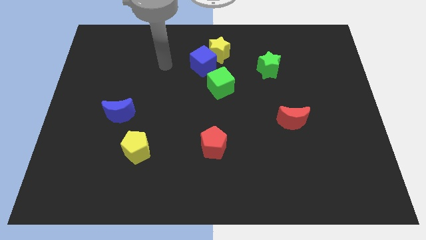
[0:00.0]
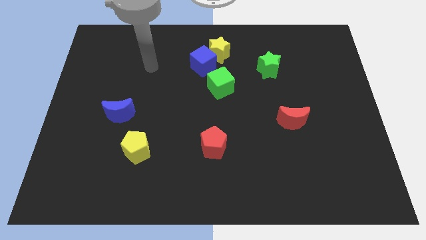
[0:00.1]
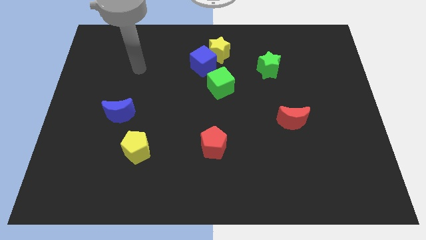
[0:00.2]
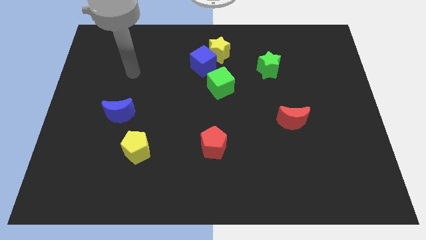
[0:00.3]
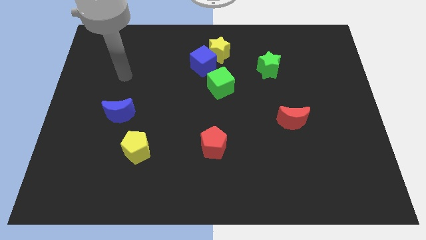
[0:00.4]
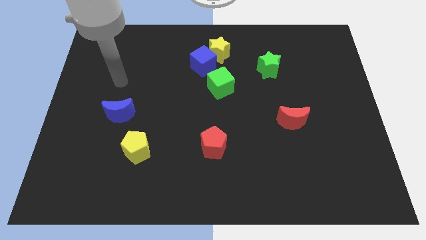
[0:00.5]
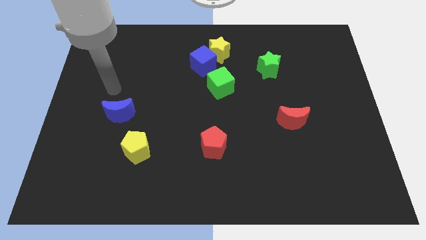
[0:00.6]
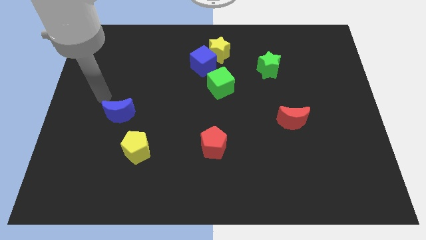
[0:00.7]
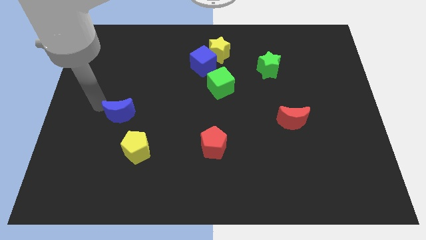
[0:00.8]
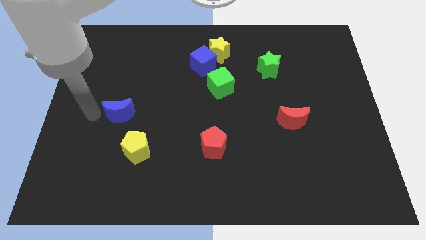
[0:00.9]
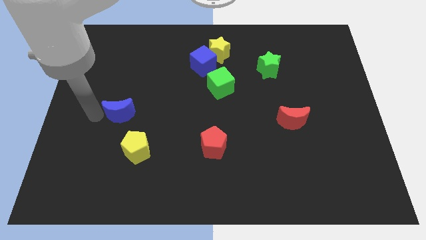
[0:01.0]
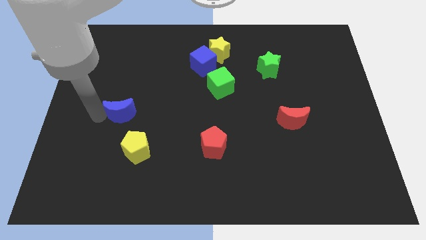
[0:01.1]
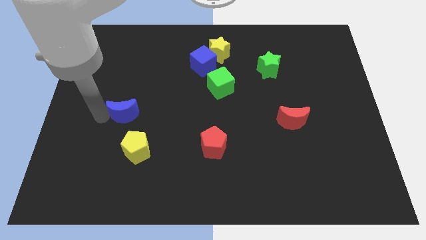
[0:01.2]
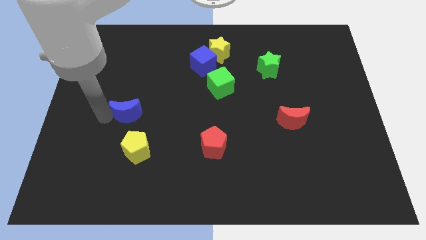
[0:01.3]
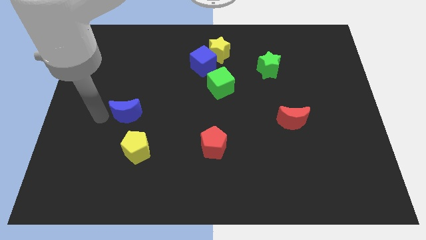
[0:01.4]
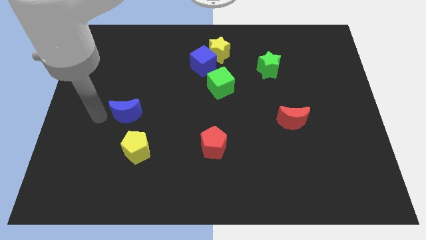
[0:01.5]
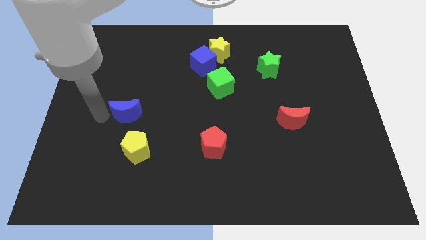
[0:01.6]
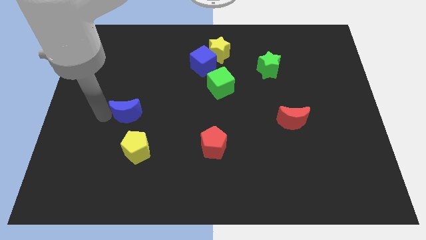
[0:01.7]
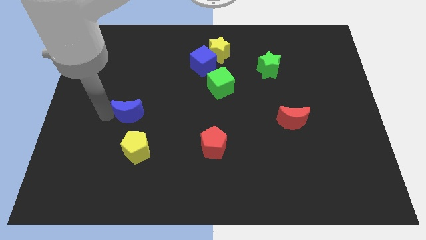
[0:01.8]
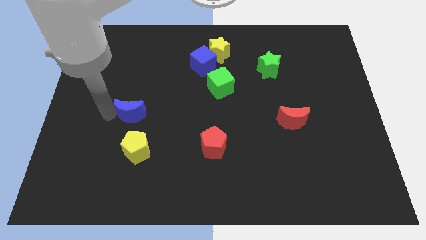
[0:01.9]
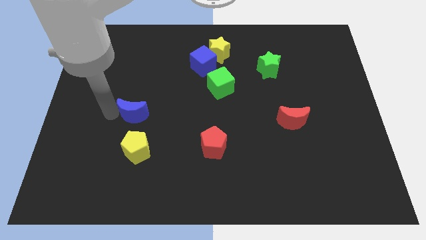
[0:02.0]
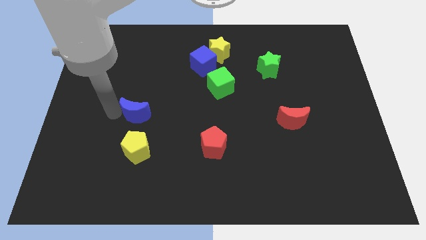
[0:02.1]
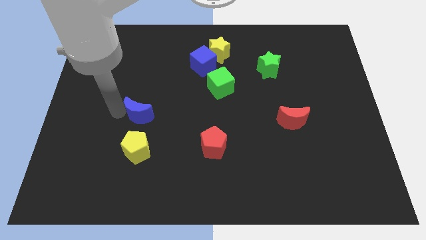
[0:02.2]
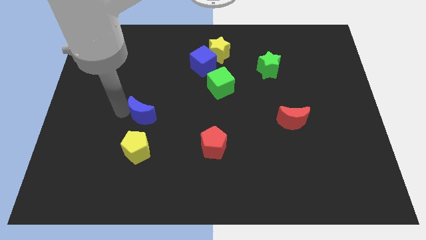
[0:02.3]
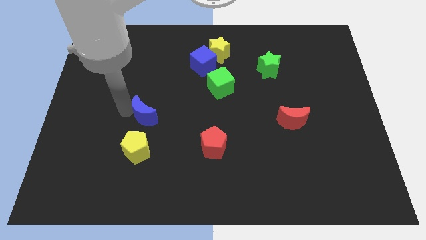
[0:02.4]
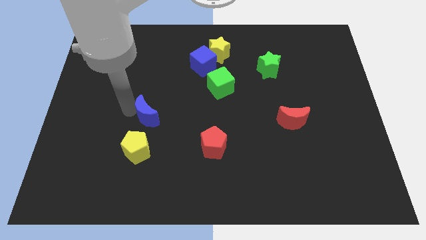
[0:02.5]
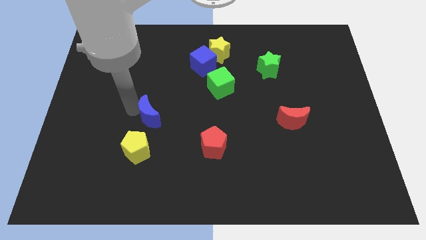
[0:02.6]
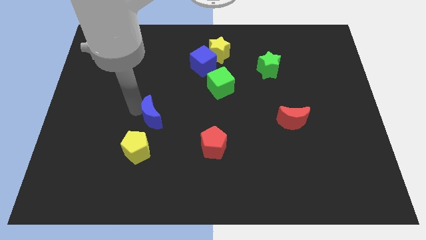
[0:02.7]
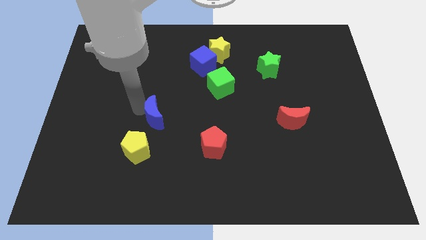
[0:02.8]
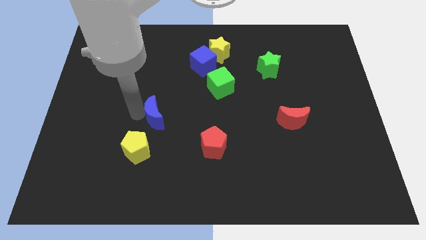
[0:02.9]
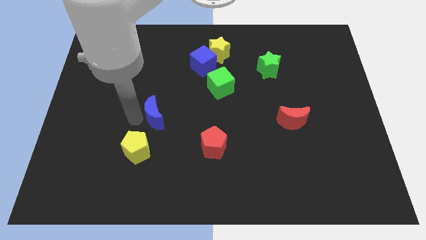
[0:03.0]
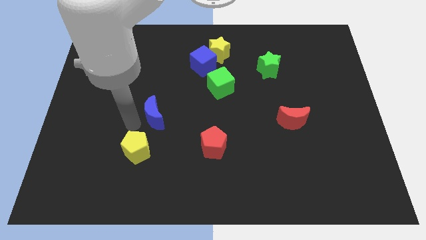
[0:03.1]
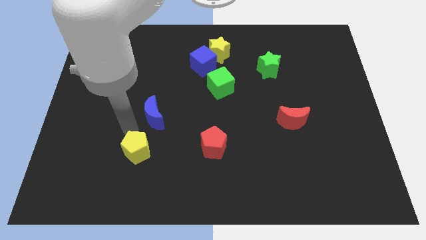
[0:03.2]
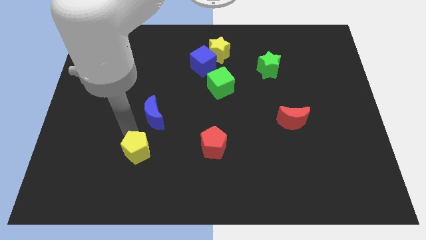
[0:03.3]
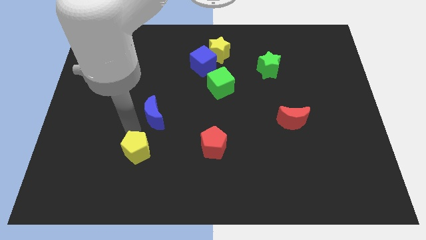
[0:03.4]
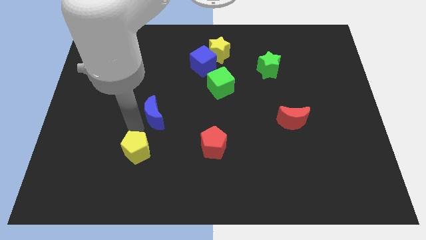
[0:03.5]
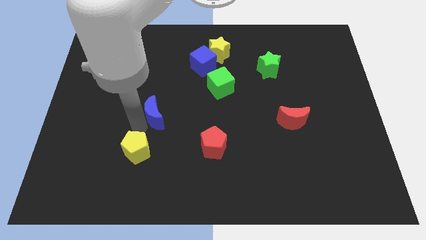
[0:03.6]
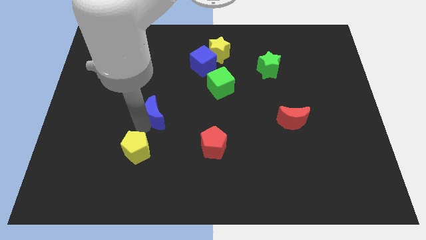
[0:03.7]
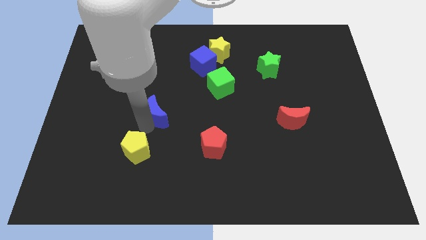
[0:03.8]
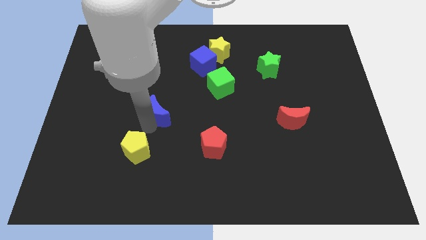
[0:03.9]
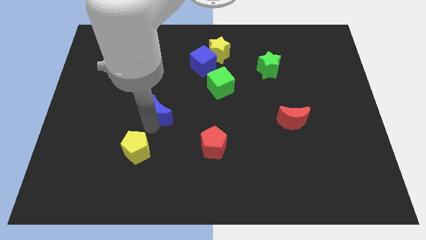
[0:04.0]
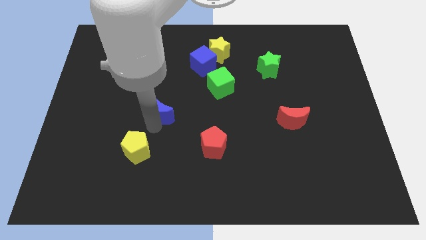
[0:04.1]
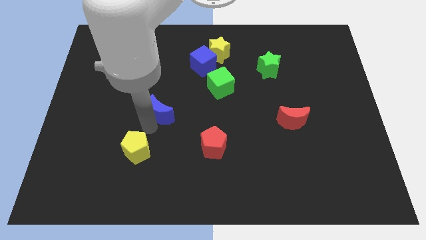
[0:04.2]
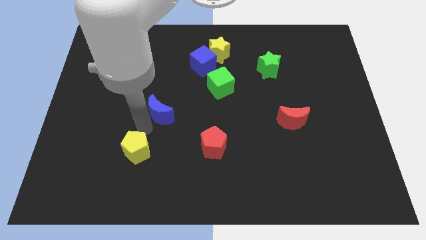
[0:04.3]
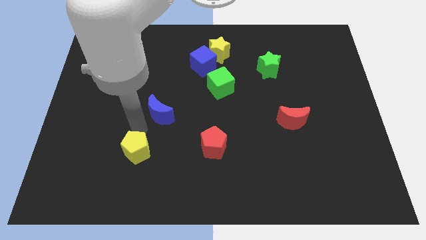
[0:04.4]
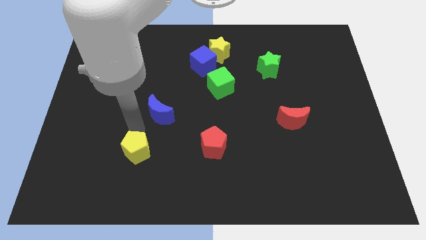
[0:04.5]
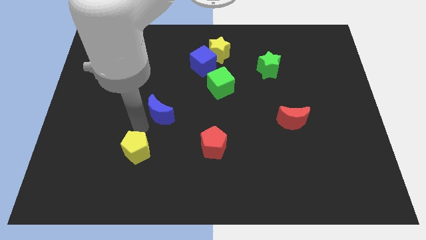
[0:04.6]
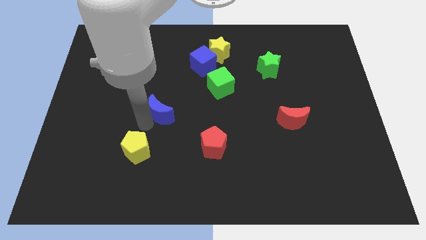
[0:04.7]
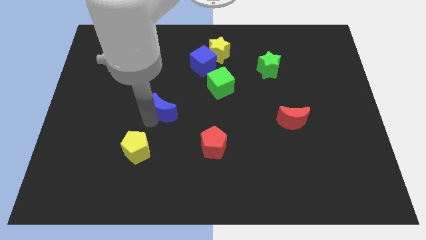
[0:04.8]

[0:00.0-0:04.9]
push the blue moon to the middle of the board

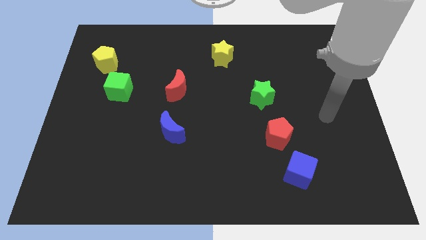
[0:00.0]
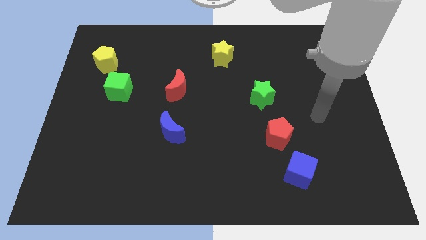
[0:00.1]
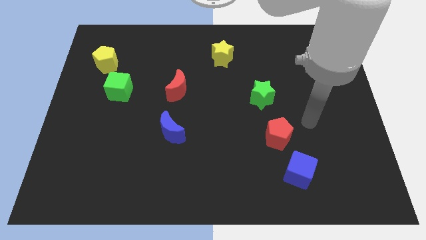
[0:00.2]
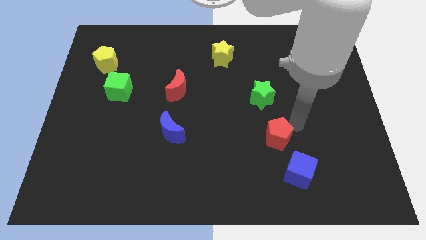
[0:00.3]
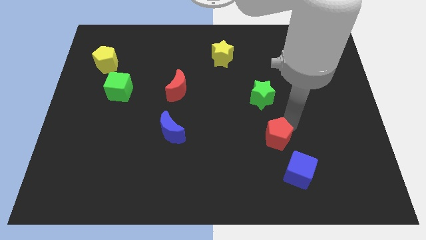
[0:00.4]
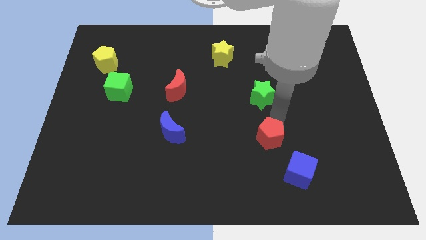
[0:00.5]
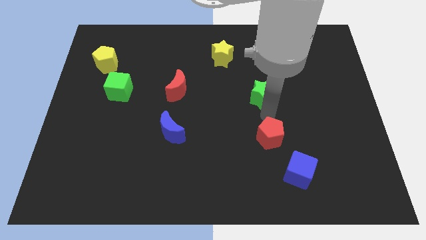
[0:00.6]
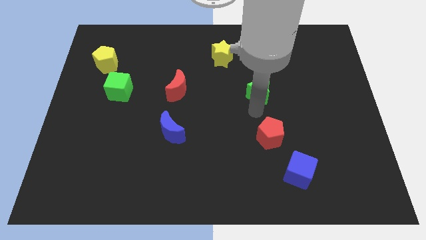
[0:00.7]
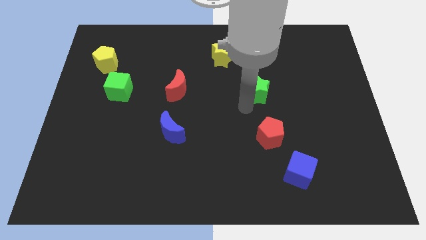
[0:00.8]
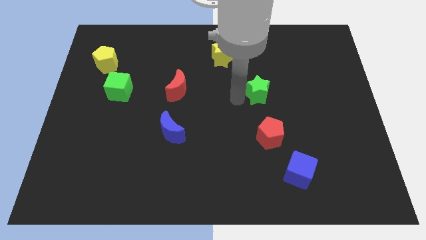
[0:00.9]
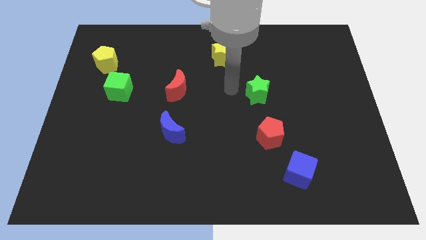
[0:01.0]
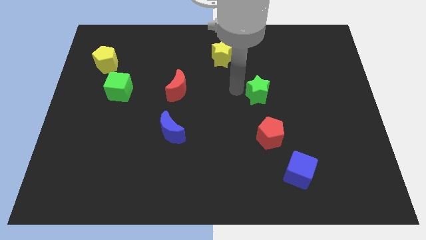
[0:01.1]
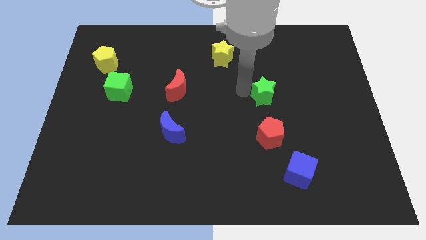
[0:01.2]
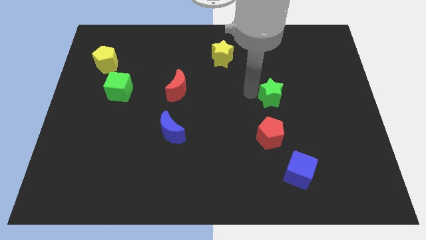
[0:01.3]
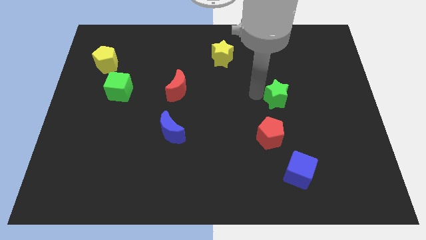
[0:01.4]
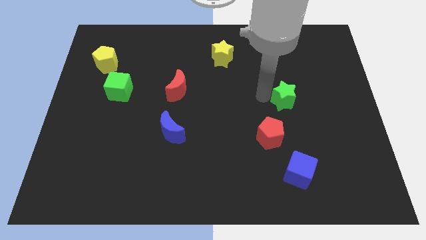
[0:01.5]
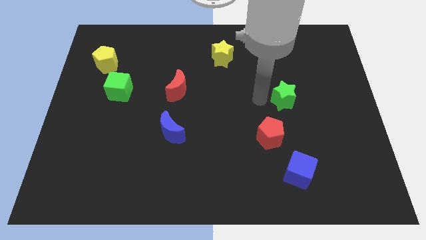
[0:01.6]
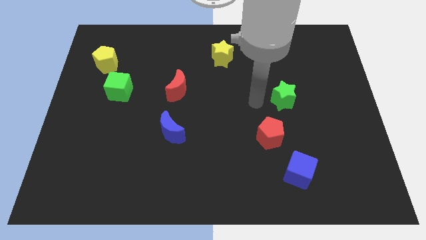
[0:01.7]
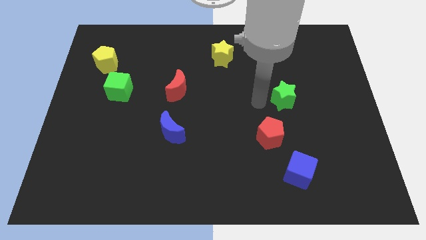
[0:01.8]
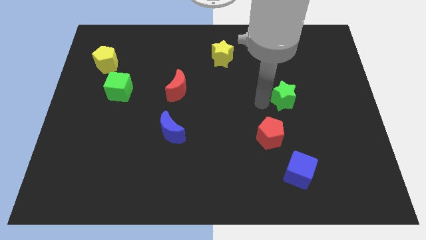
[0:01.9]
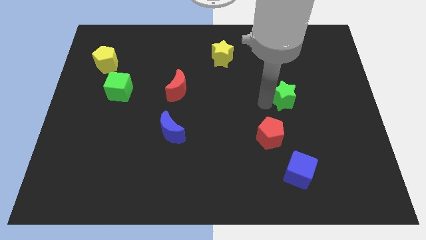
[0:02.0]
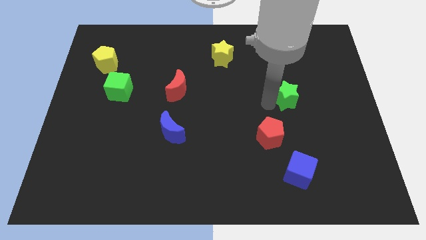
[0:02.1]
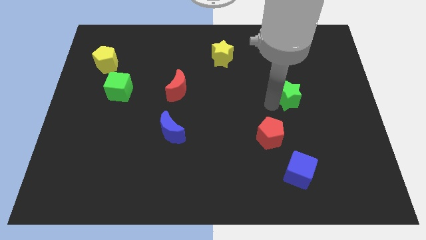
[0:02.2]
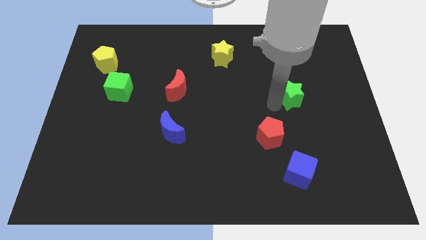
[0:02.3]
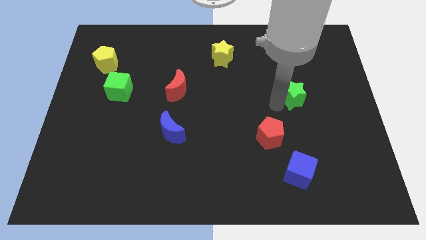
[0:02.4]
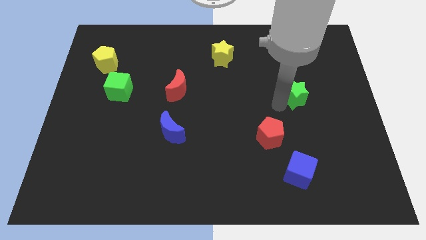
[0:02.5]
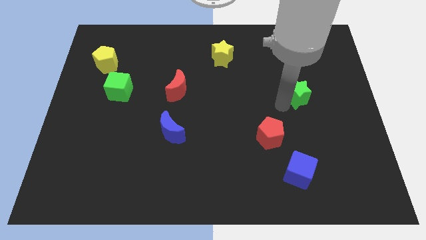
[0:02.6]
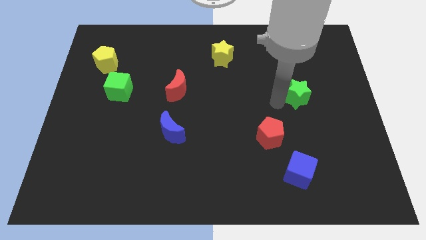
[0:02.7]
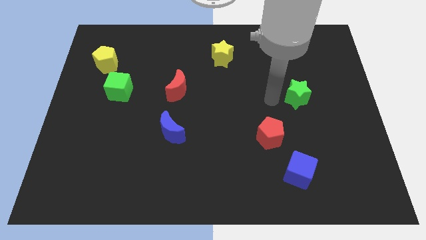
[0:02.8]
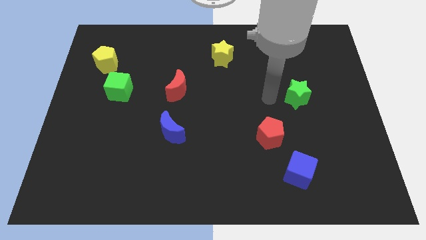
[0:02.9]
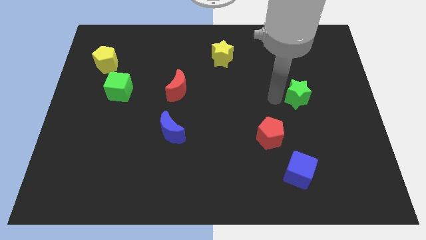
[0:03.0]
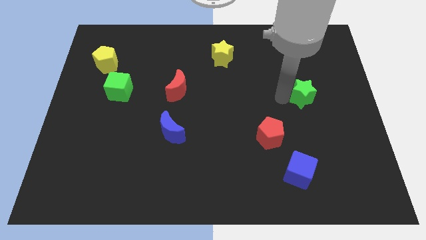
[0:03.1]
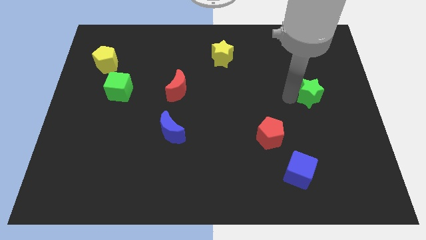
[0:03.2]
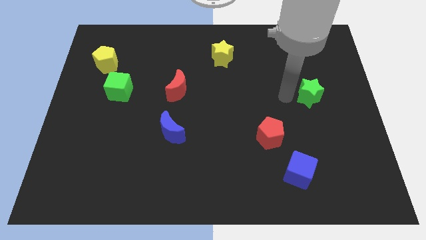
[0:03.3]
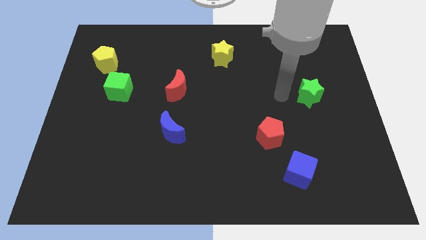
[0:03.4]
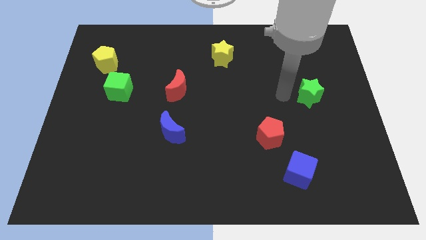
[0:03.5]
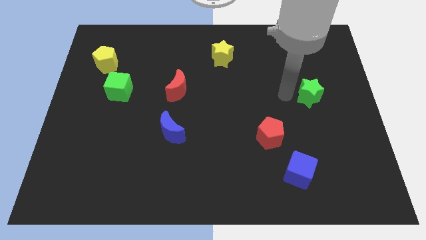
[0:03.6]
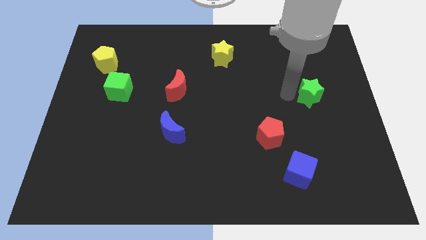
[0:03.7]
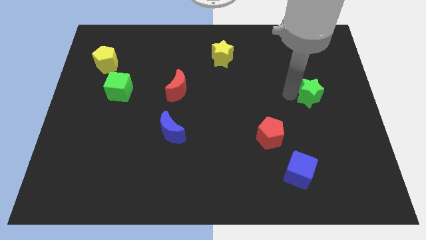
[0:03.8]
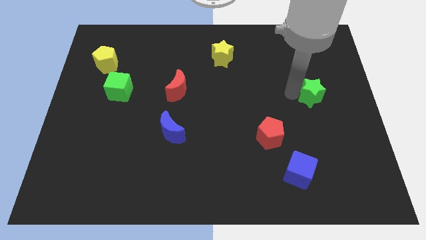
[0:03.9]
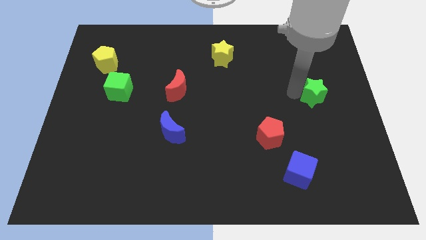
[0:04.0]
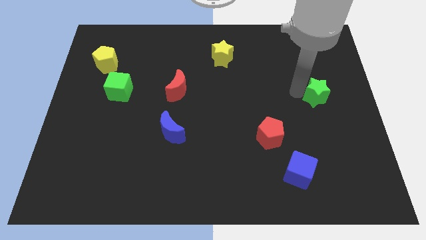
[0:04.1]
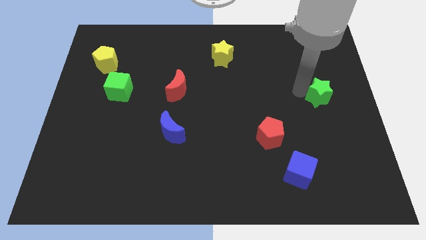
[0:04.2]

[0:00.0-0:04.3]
put the green star to the center right
